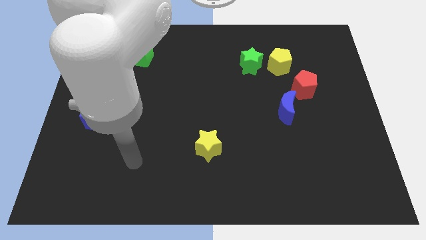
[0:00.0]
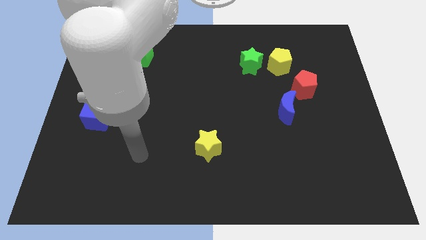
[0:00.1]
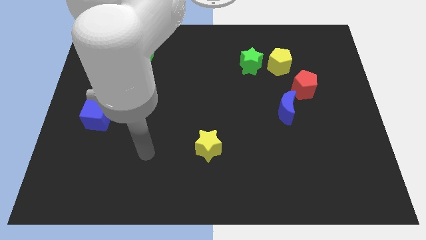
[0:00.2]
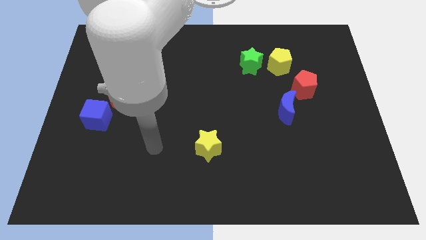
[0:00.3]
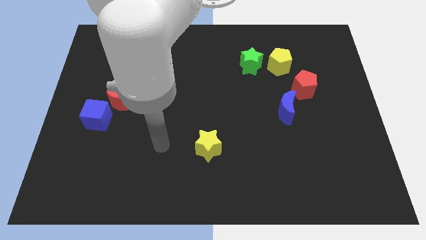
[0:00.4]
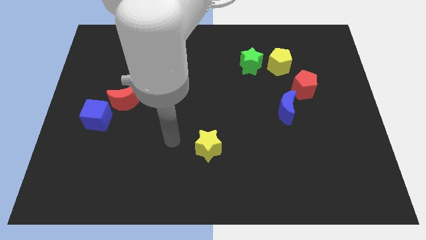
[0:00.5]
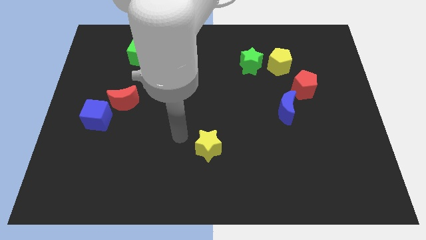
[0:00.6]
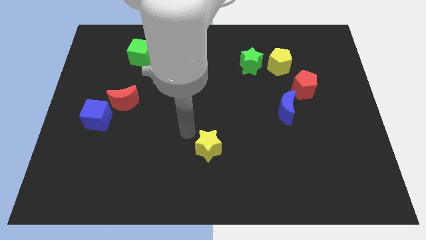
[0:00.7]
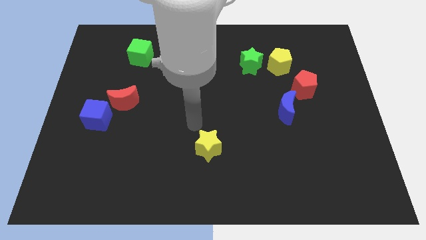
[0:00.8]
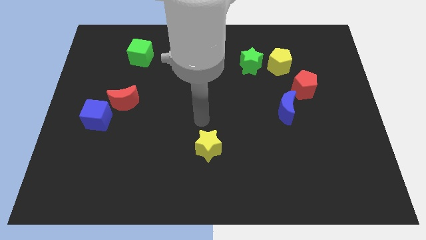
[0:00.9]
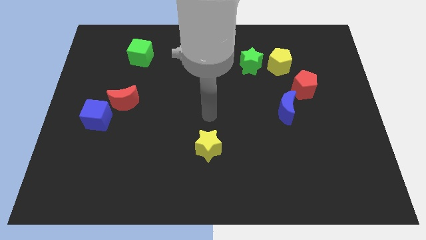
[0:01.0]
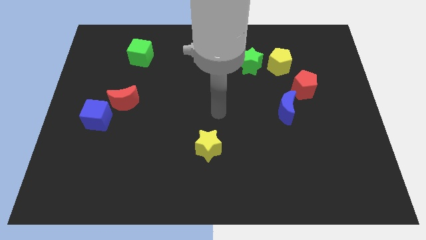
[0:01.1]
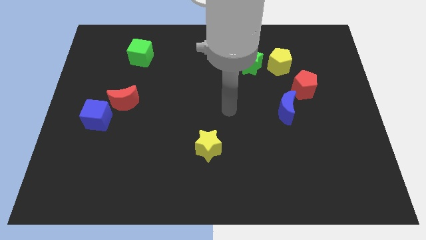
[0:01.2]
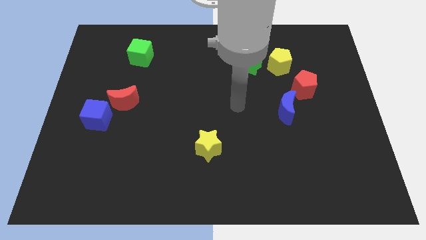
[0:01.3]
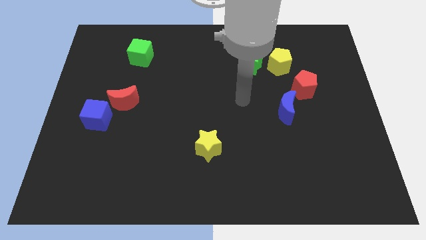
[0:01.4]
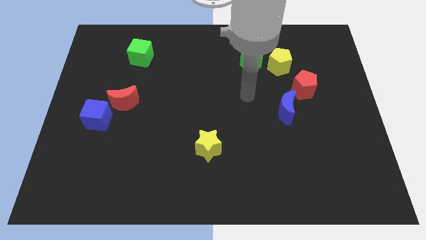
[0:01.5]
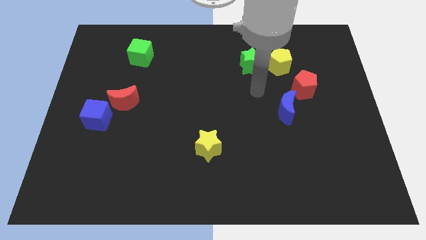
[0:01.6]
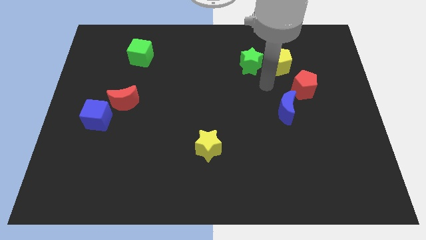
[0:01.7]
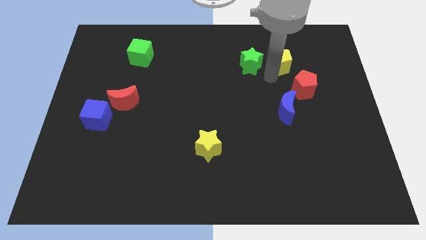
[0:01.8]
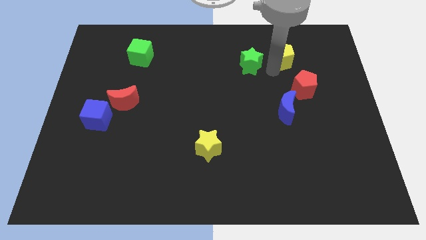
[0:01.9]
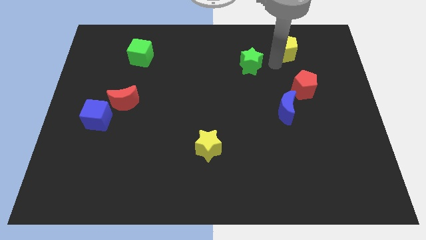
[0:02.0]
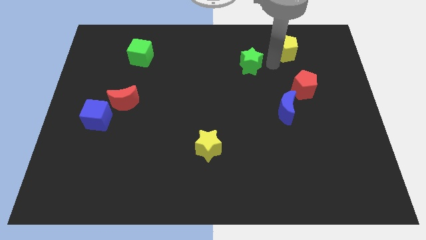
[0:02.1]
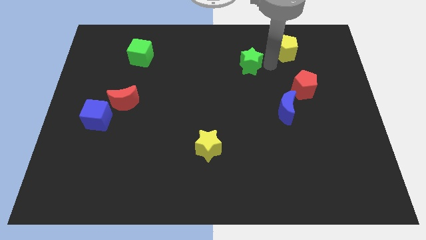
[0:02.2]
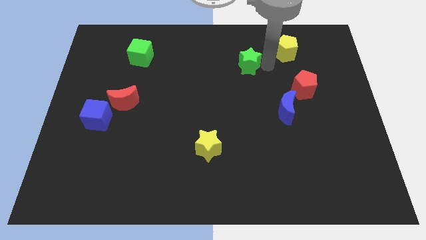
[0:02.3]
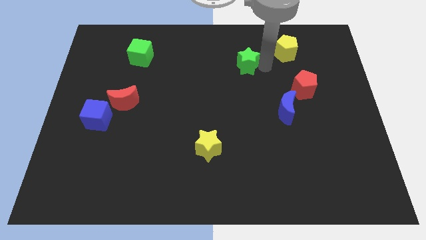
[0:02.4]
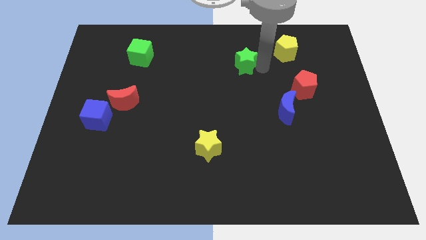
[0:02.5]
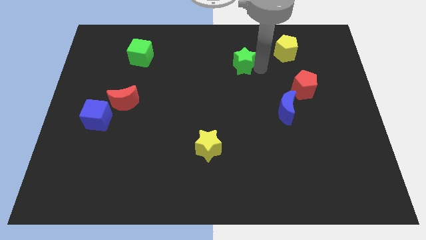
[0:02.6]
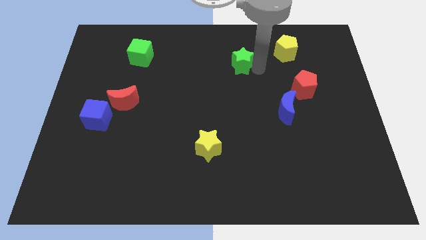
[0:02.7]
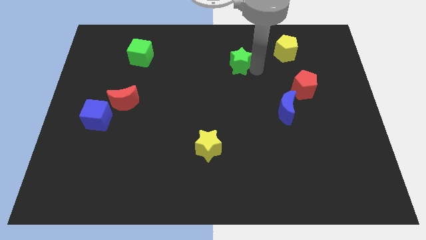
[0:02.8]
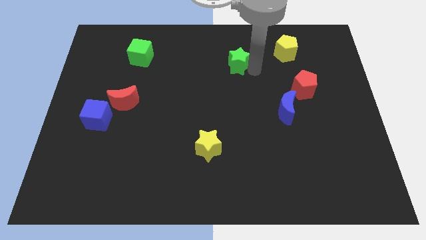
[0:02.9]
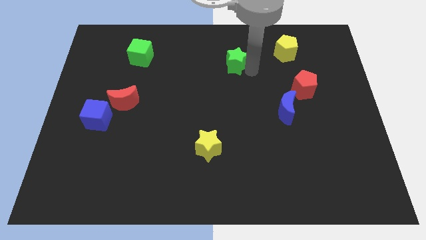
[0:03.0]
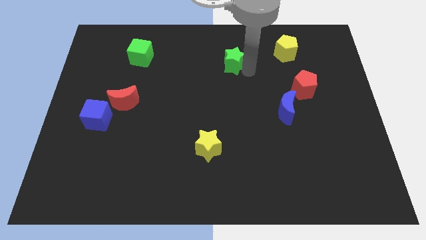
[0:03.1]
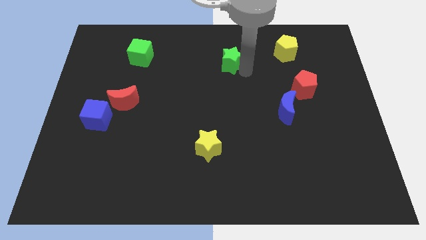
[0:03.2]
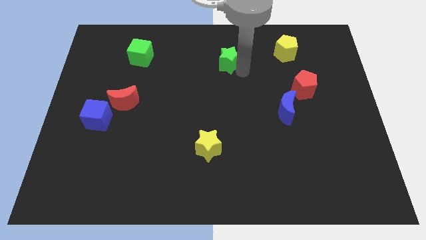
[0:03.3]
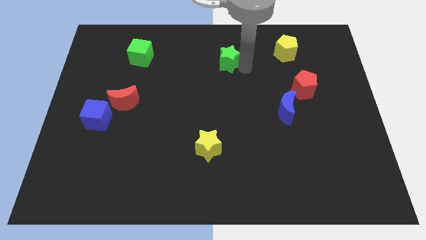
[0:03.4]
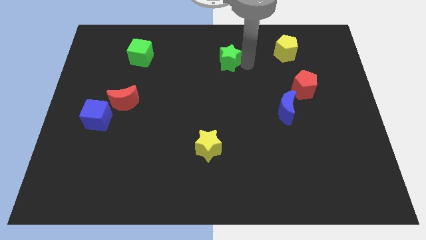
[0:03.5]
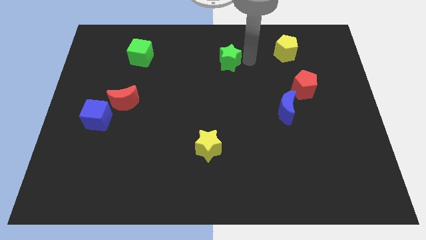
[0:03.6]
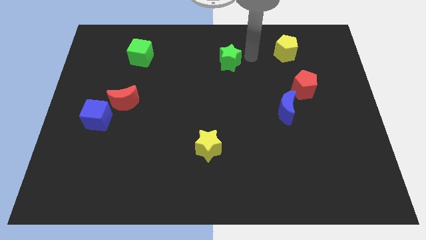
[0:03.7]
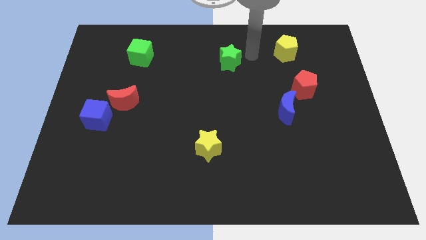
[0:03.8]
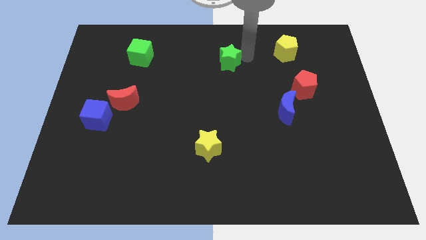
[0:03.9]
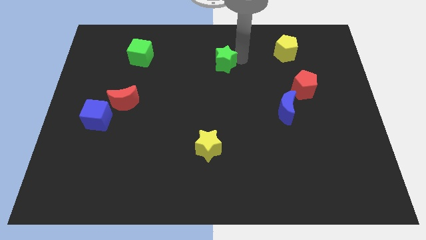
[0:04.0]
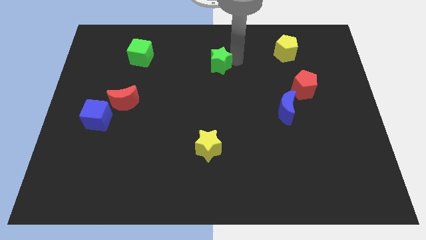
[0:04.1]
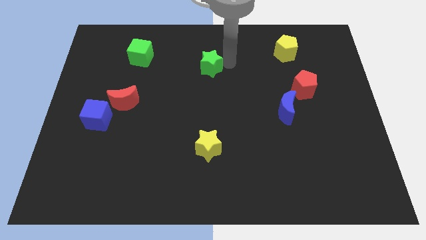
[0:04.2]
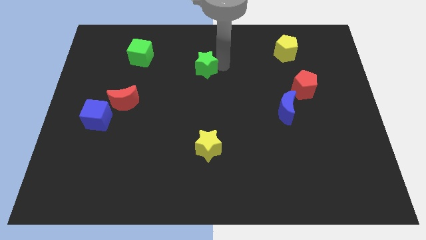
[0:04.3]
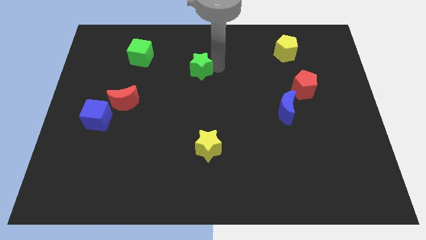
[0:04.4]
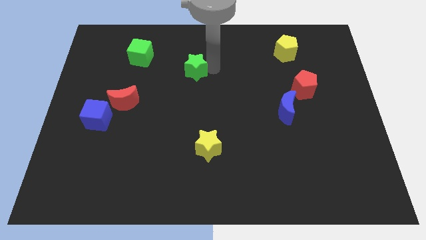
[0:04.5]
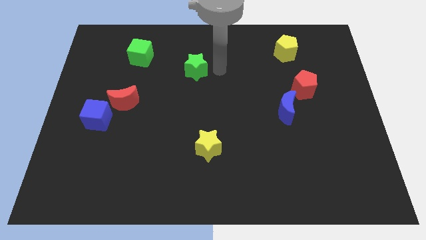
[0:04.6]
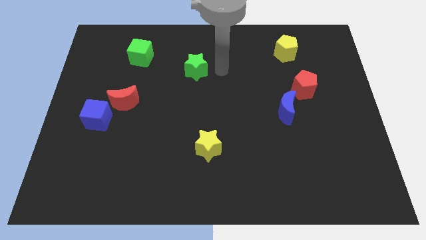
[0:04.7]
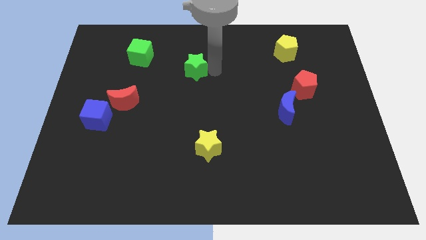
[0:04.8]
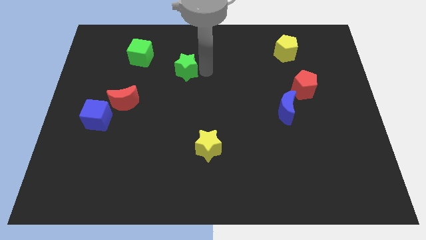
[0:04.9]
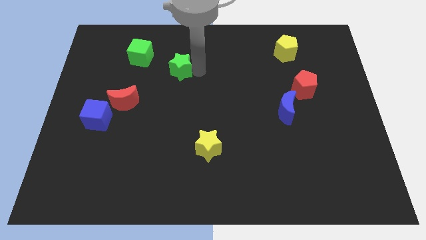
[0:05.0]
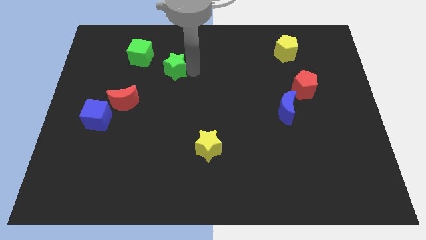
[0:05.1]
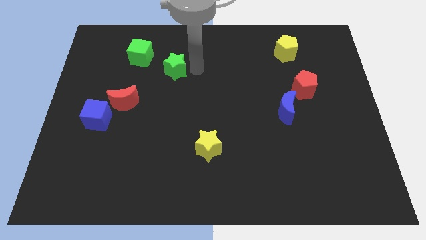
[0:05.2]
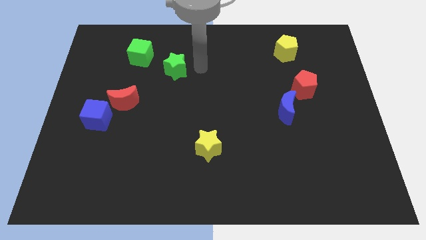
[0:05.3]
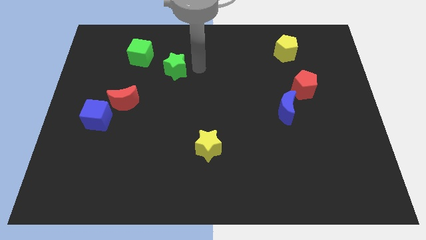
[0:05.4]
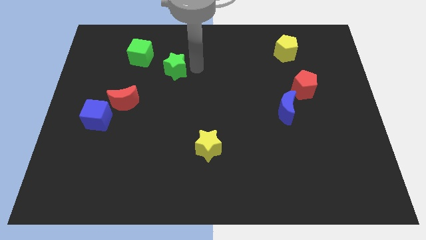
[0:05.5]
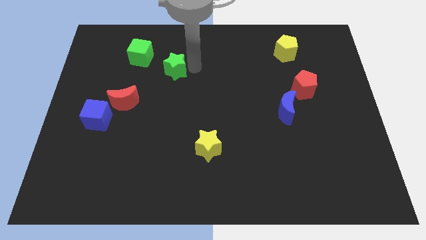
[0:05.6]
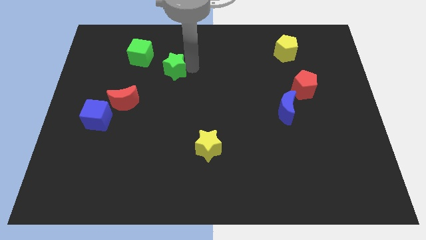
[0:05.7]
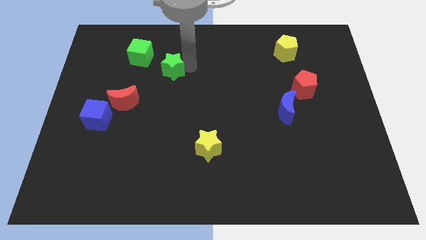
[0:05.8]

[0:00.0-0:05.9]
slide the green star left

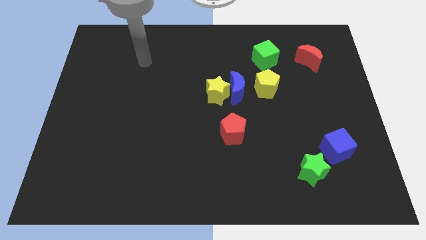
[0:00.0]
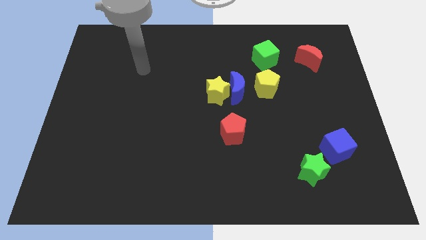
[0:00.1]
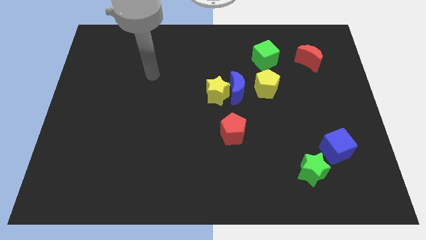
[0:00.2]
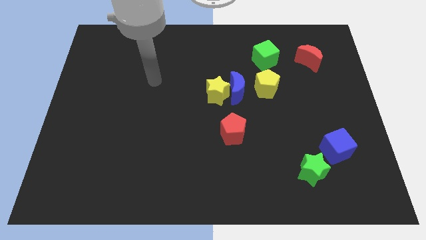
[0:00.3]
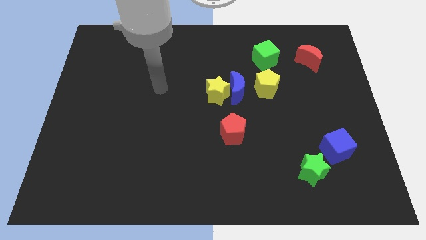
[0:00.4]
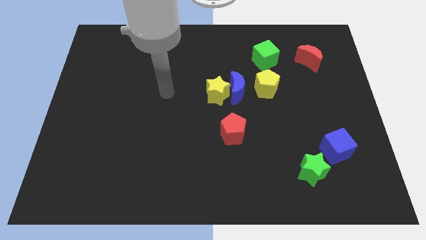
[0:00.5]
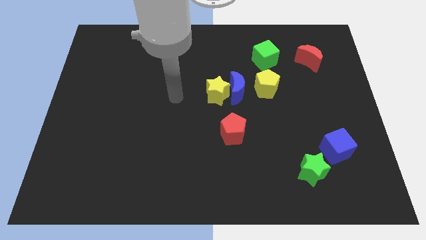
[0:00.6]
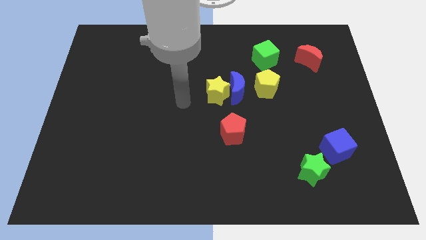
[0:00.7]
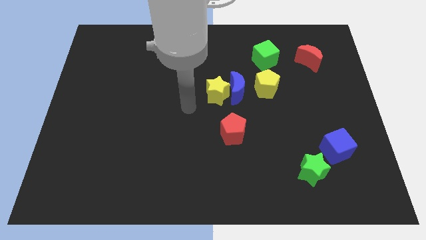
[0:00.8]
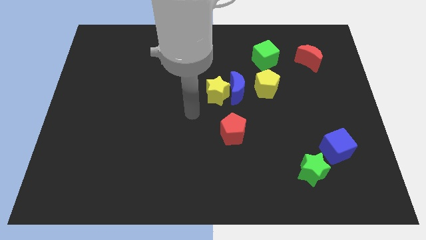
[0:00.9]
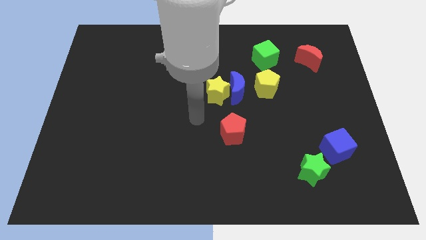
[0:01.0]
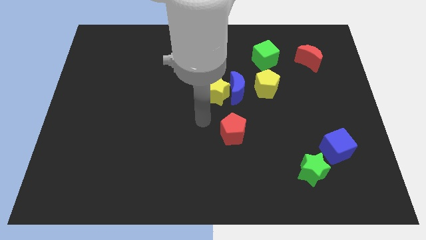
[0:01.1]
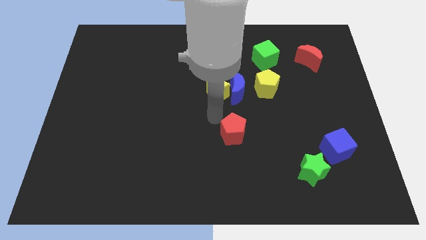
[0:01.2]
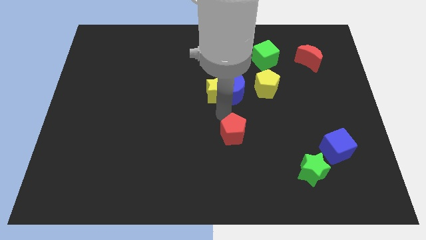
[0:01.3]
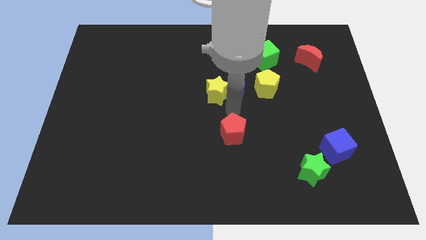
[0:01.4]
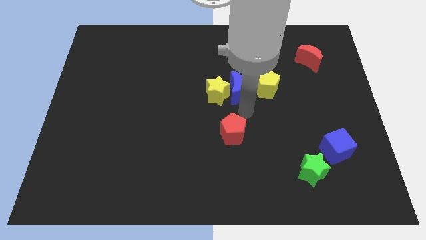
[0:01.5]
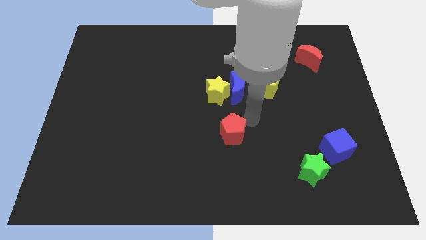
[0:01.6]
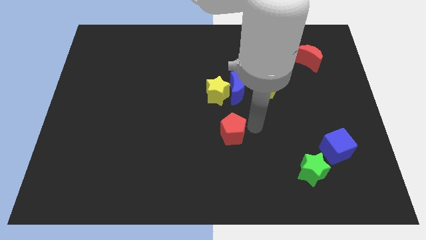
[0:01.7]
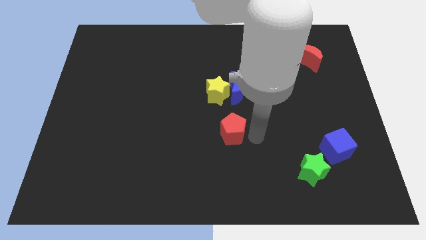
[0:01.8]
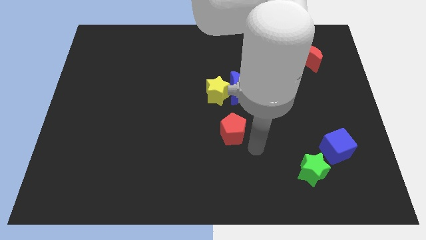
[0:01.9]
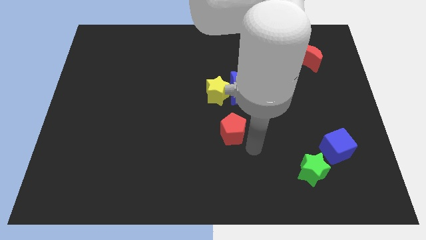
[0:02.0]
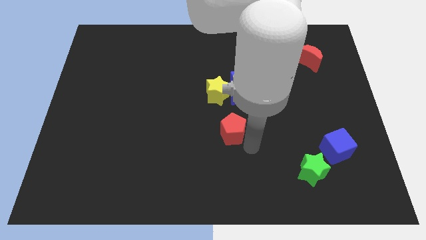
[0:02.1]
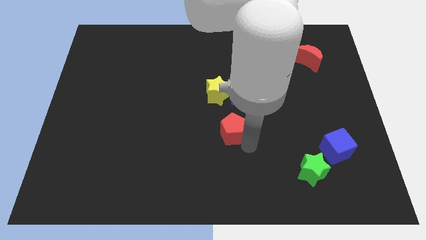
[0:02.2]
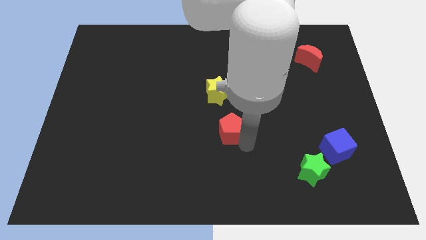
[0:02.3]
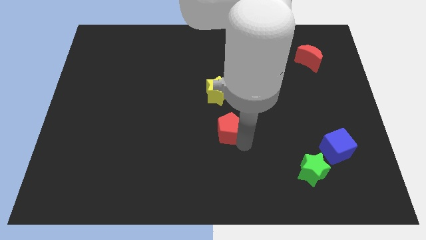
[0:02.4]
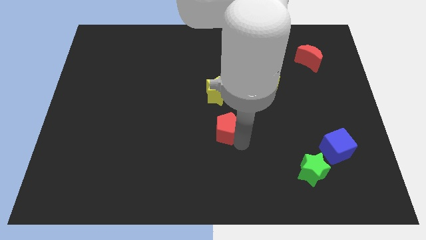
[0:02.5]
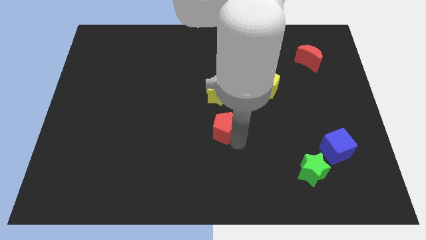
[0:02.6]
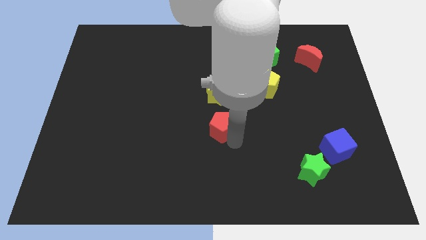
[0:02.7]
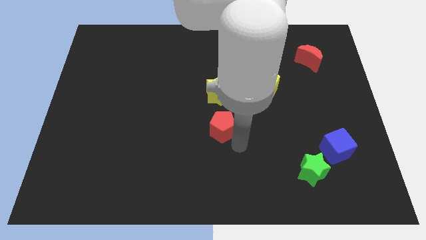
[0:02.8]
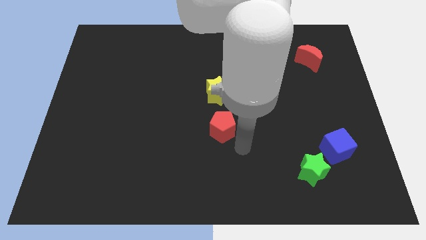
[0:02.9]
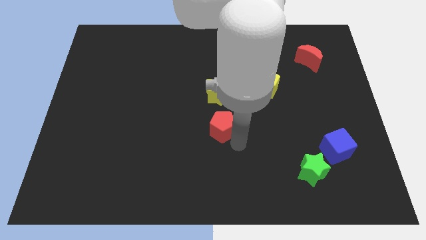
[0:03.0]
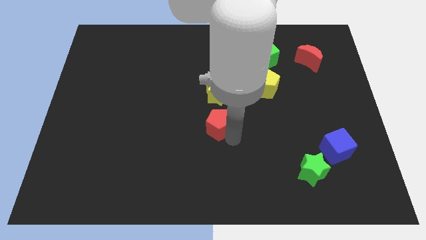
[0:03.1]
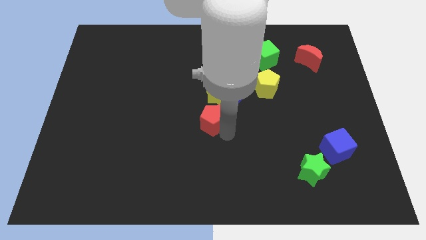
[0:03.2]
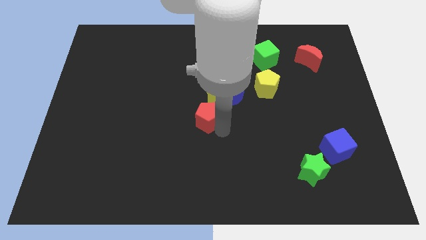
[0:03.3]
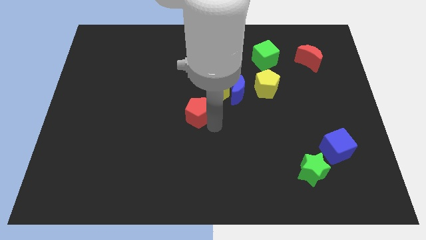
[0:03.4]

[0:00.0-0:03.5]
slightly move the red pentagon upwards and to the left
